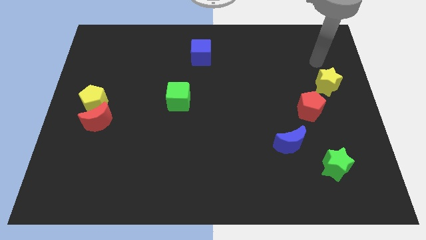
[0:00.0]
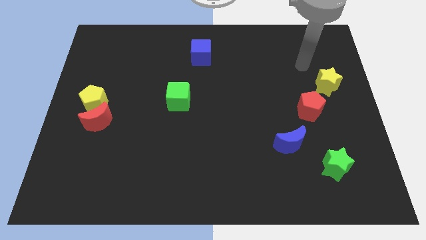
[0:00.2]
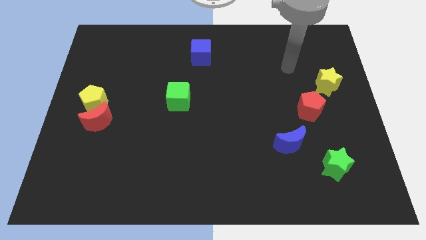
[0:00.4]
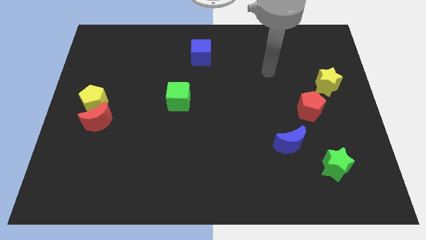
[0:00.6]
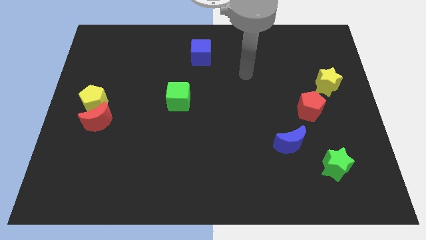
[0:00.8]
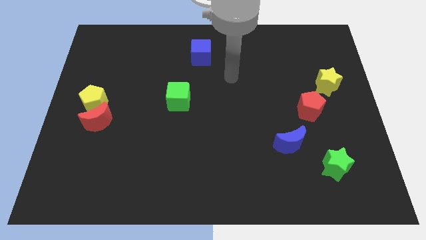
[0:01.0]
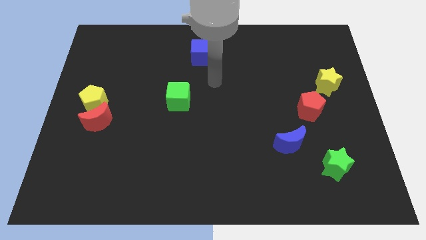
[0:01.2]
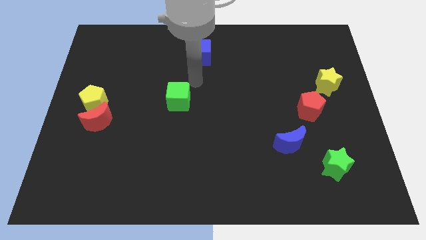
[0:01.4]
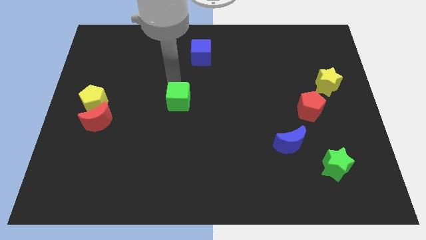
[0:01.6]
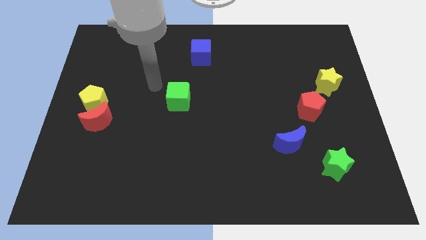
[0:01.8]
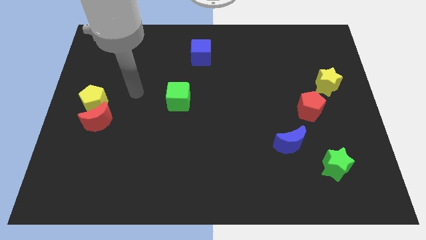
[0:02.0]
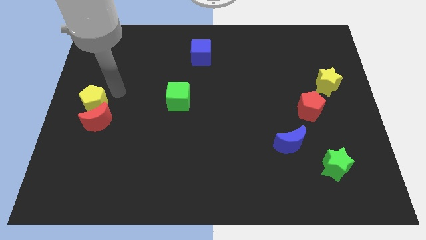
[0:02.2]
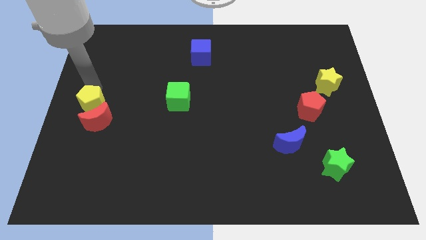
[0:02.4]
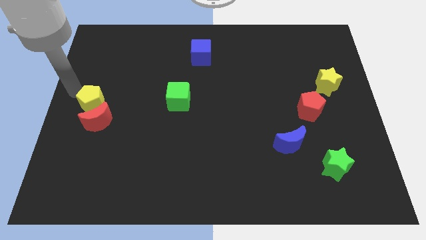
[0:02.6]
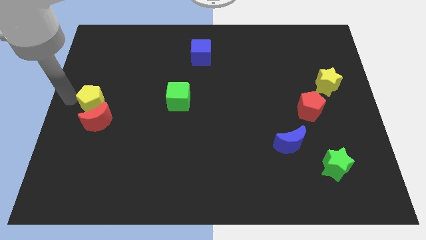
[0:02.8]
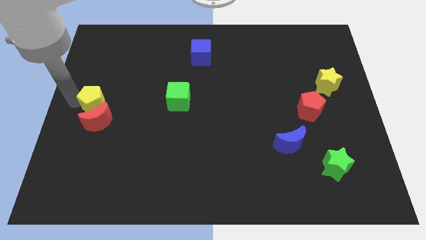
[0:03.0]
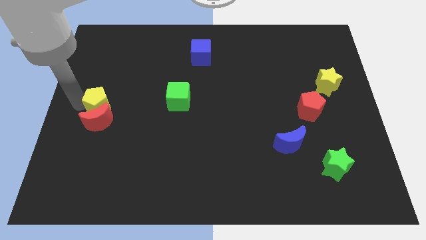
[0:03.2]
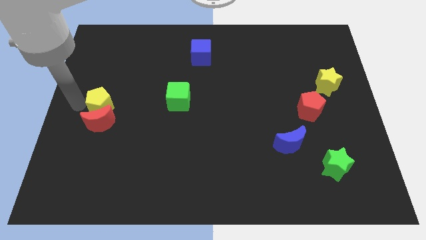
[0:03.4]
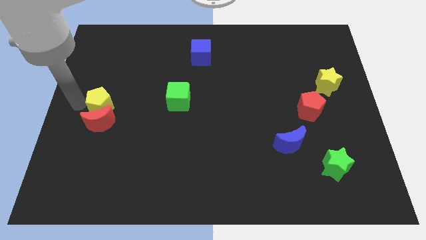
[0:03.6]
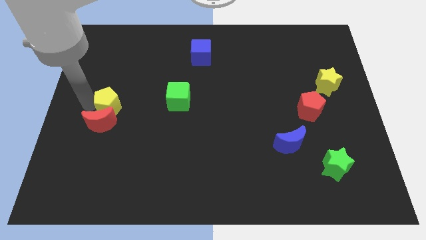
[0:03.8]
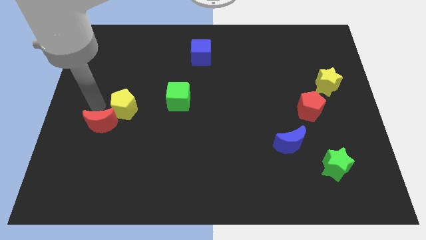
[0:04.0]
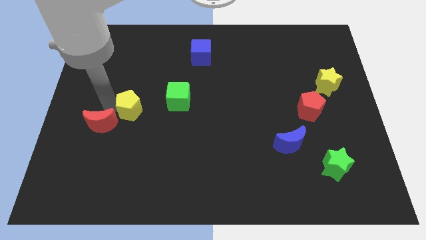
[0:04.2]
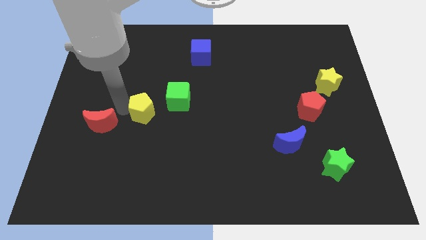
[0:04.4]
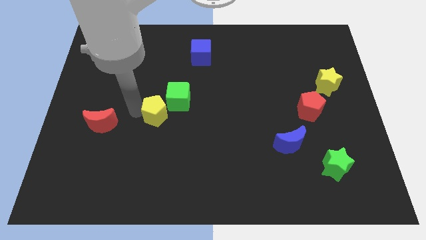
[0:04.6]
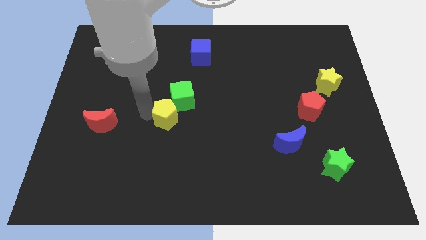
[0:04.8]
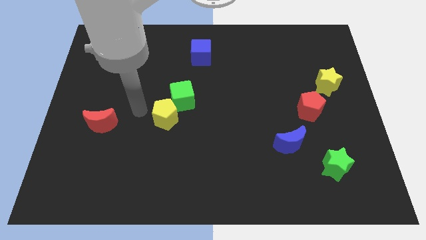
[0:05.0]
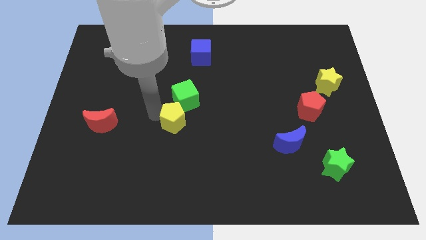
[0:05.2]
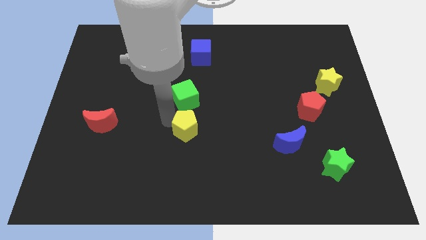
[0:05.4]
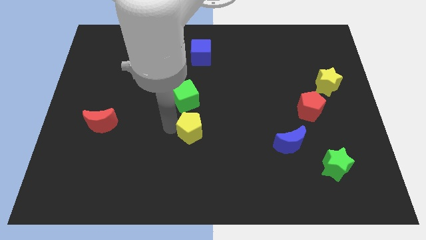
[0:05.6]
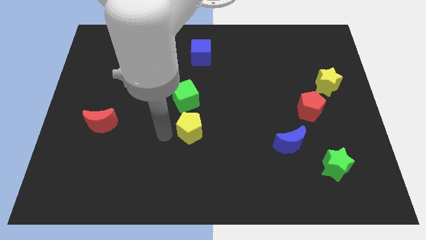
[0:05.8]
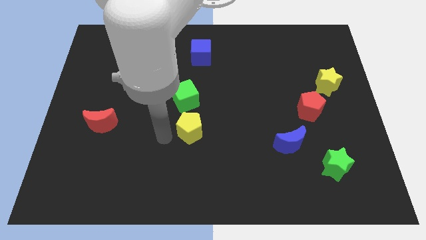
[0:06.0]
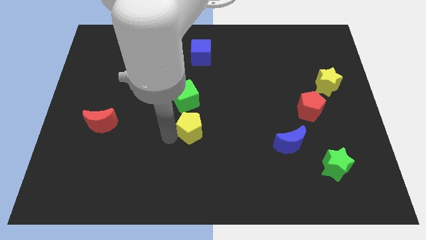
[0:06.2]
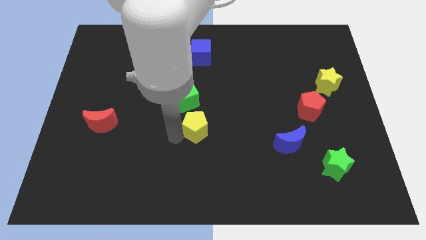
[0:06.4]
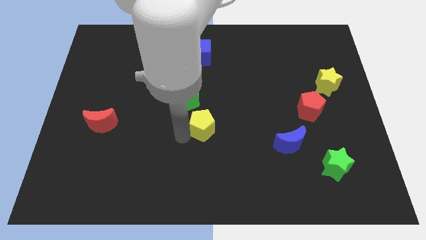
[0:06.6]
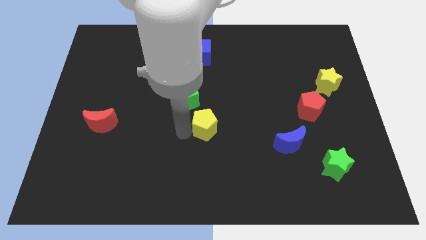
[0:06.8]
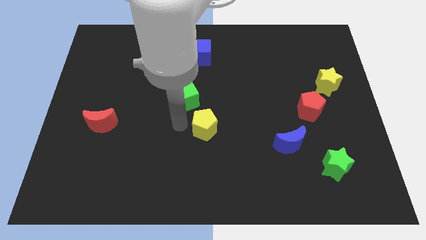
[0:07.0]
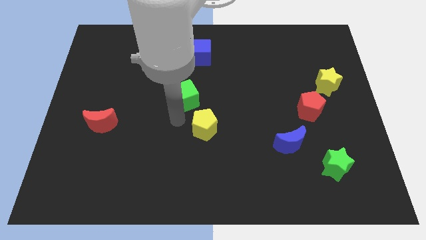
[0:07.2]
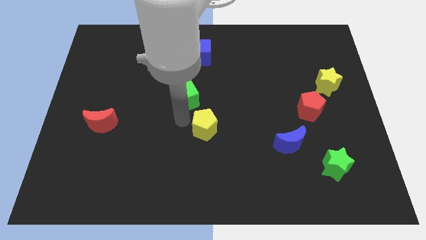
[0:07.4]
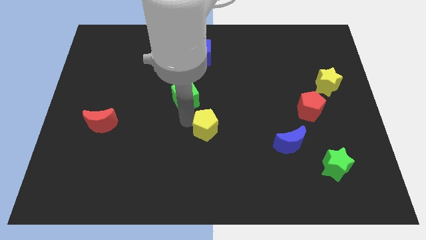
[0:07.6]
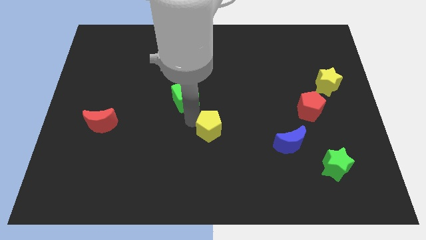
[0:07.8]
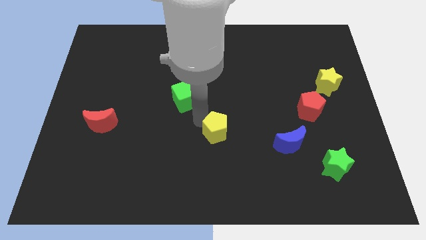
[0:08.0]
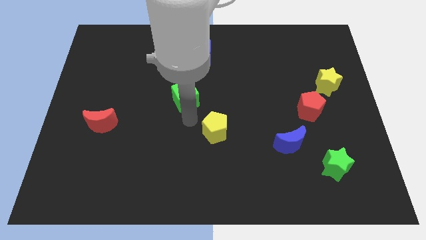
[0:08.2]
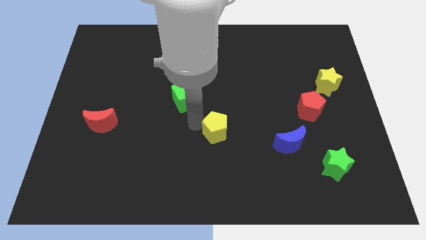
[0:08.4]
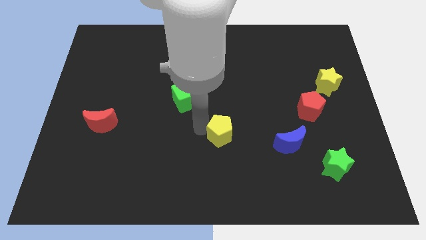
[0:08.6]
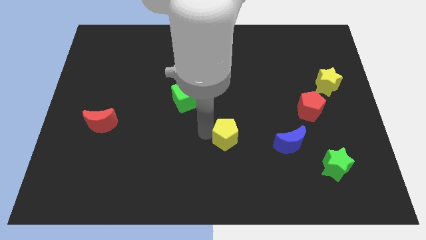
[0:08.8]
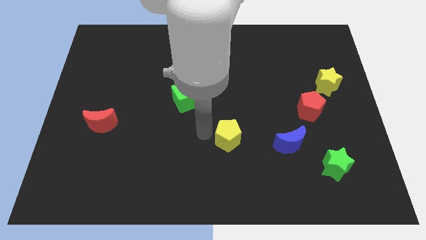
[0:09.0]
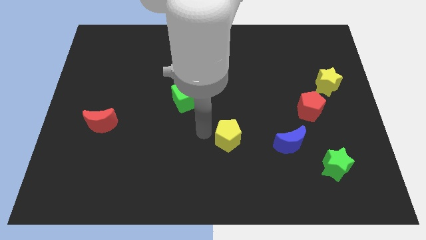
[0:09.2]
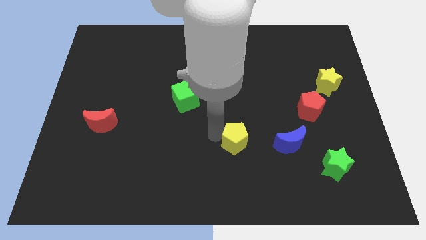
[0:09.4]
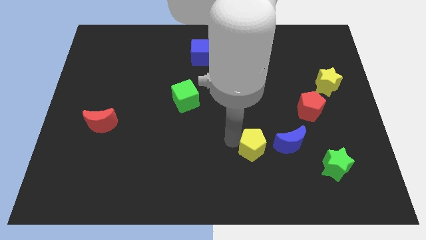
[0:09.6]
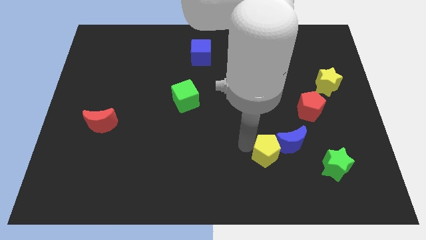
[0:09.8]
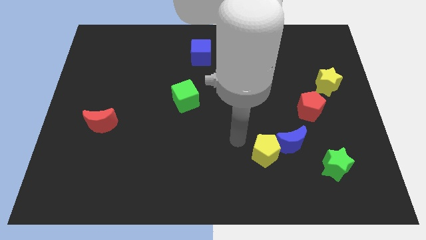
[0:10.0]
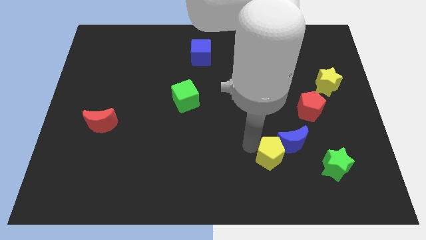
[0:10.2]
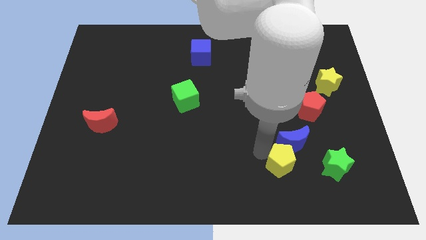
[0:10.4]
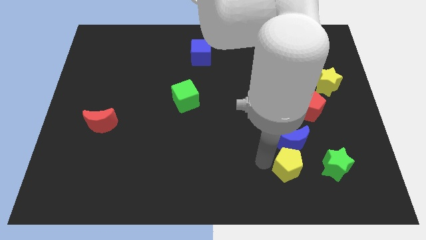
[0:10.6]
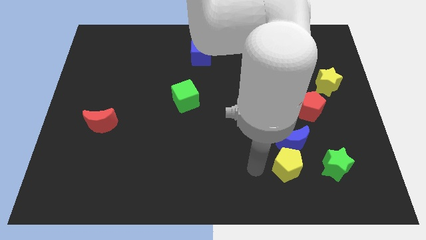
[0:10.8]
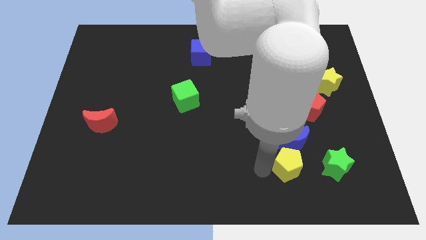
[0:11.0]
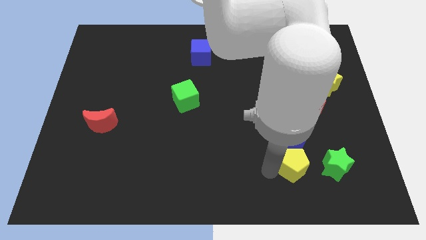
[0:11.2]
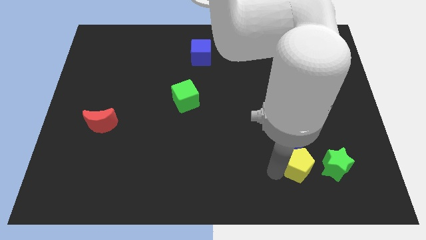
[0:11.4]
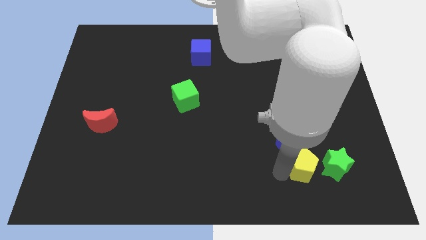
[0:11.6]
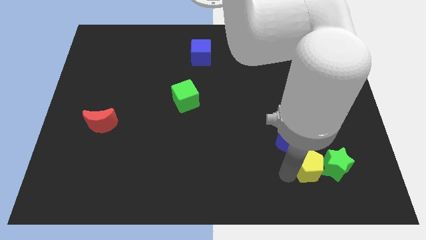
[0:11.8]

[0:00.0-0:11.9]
slide the yellow pentagon towards the green star

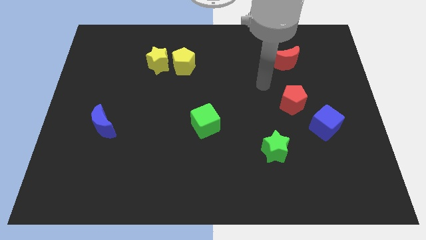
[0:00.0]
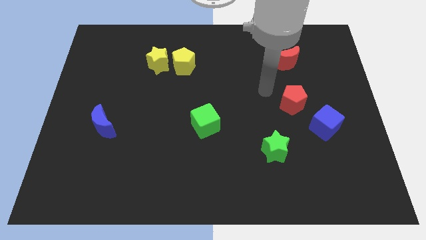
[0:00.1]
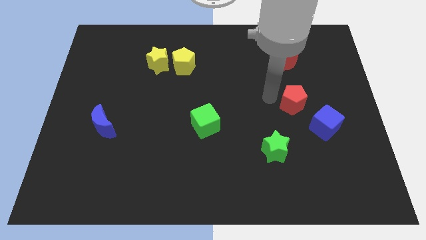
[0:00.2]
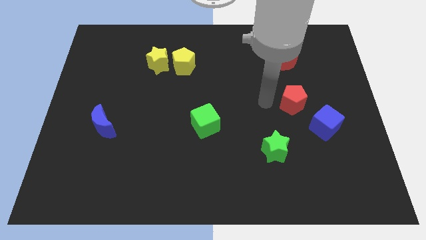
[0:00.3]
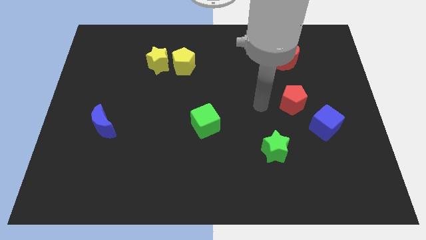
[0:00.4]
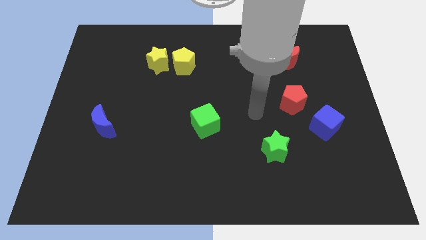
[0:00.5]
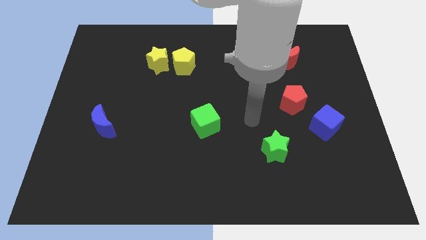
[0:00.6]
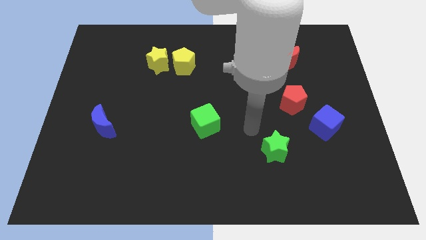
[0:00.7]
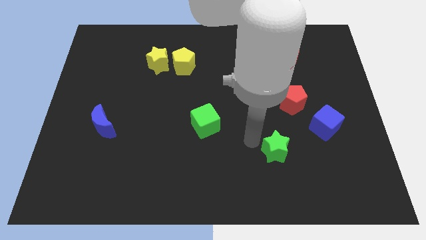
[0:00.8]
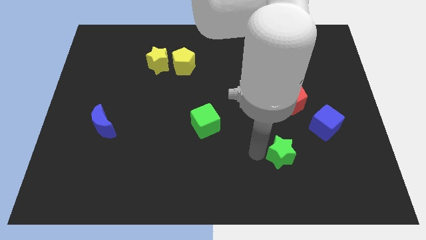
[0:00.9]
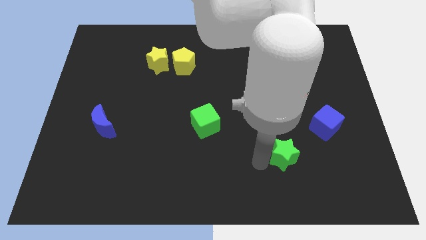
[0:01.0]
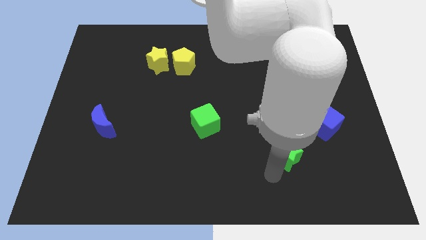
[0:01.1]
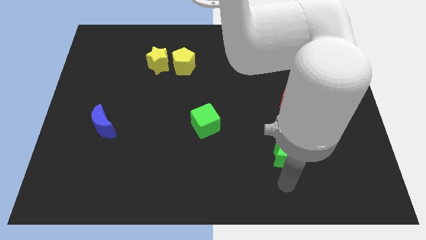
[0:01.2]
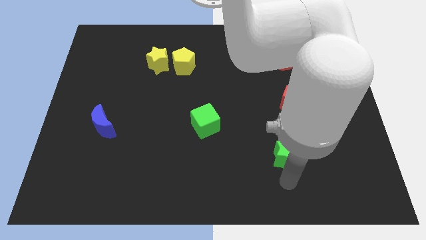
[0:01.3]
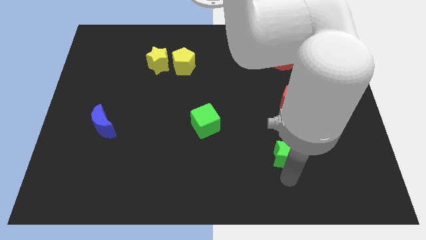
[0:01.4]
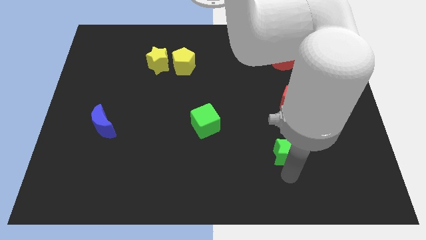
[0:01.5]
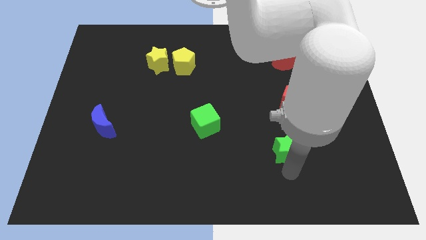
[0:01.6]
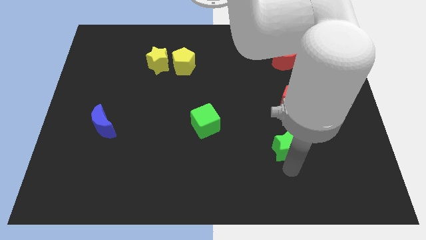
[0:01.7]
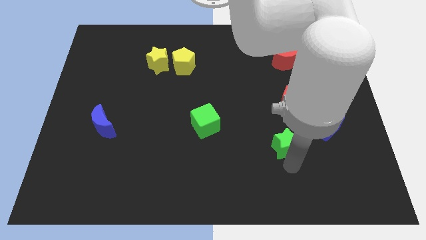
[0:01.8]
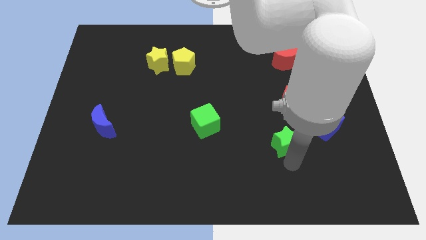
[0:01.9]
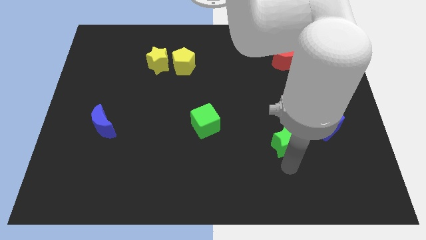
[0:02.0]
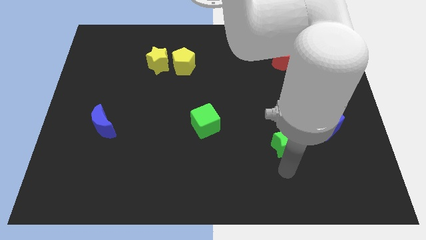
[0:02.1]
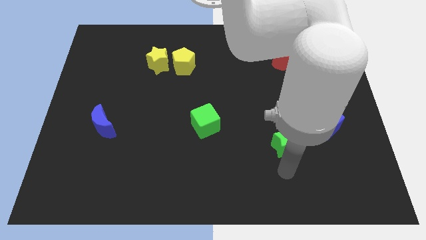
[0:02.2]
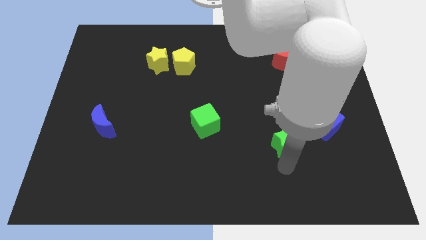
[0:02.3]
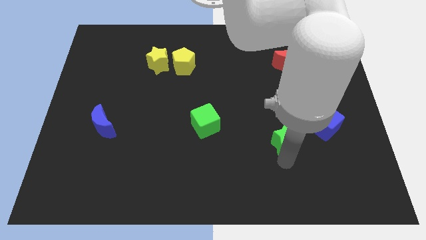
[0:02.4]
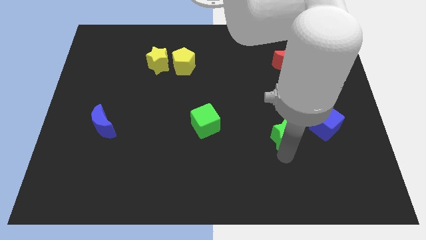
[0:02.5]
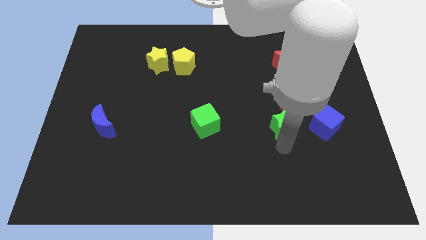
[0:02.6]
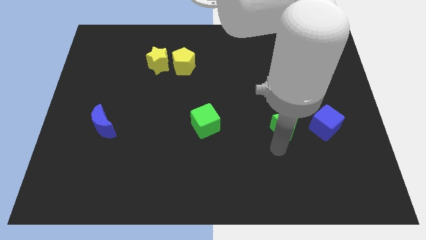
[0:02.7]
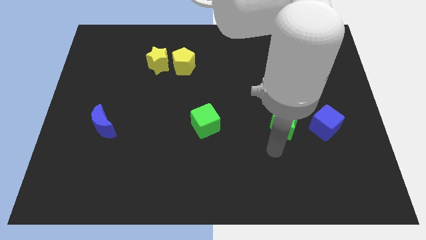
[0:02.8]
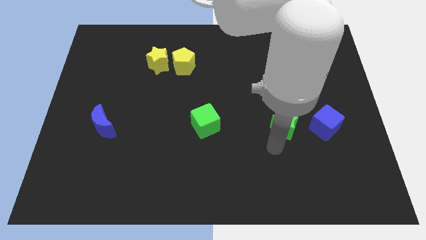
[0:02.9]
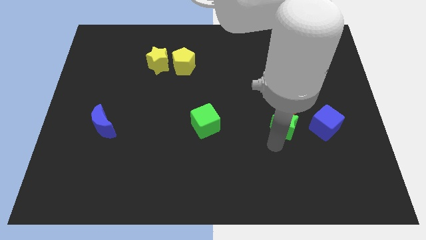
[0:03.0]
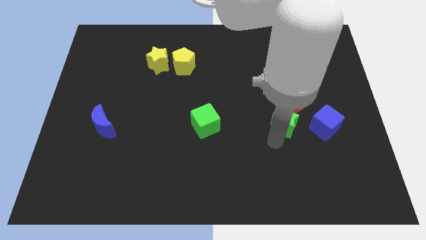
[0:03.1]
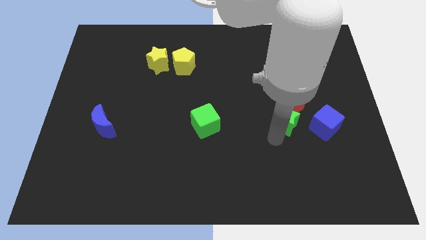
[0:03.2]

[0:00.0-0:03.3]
put the green star close to the red pentagon
